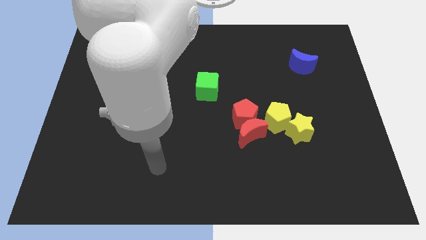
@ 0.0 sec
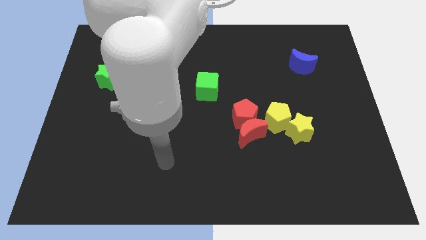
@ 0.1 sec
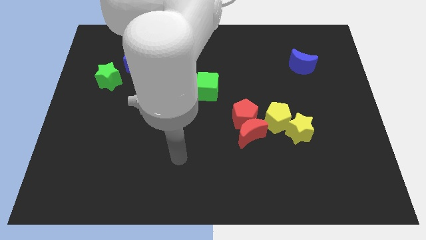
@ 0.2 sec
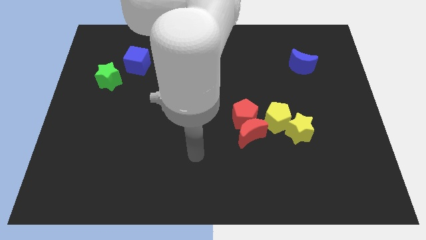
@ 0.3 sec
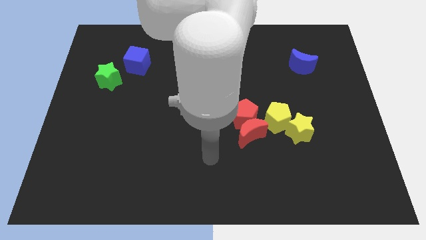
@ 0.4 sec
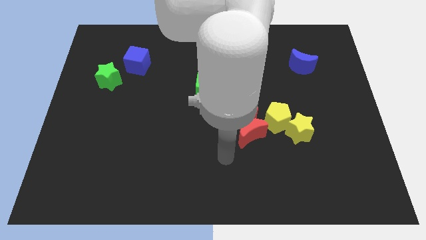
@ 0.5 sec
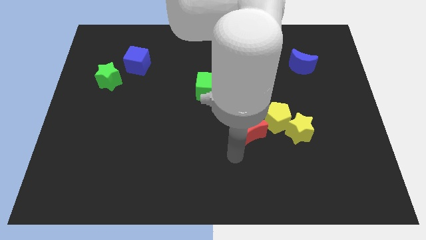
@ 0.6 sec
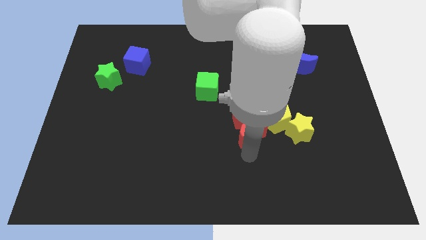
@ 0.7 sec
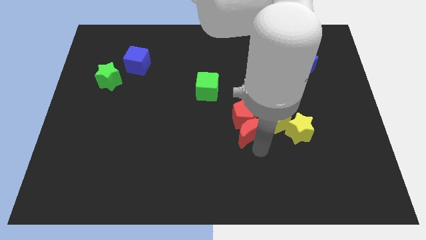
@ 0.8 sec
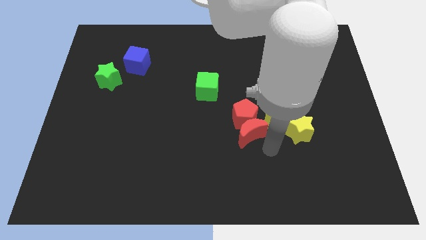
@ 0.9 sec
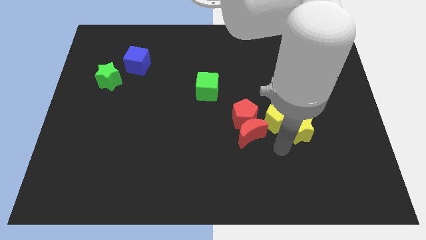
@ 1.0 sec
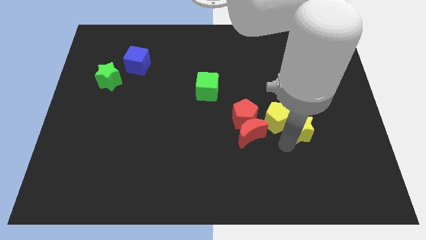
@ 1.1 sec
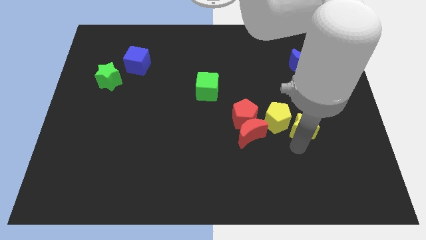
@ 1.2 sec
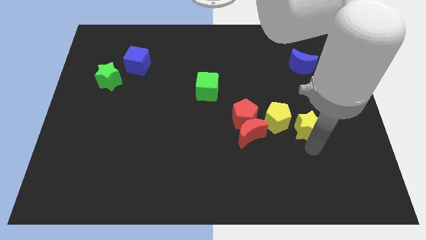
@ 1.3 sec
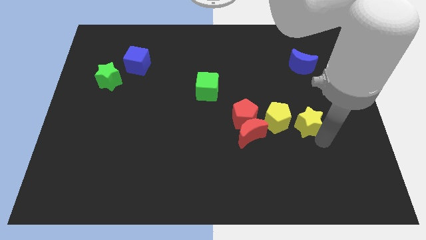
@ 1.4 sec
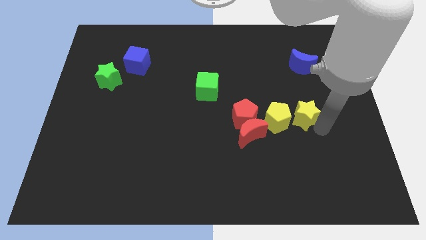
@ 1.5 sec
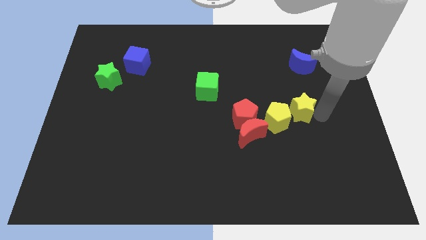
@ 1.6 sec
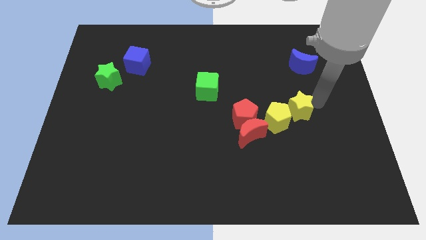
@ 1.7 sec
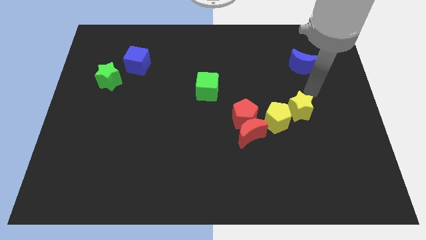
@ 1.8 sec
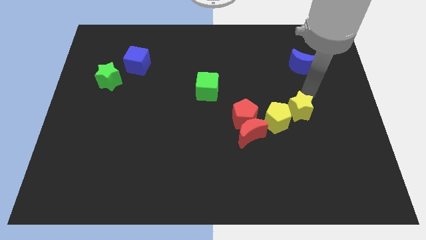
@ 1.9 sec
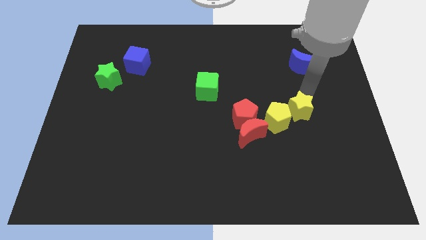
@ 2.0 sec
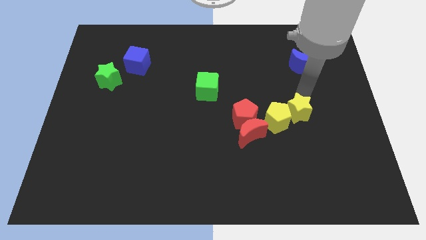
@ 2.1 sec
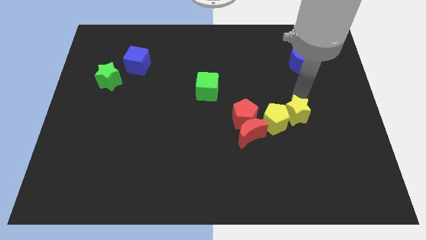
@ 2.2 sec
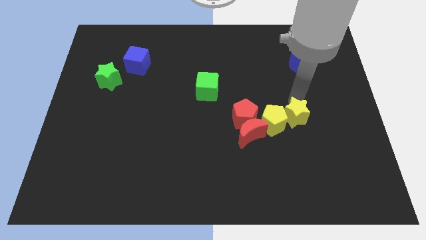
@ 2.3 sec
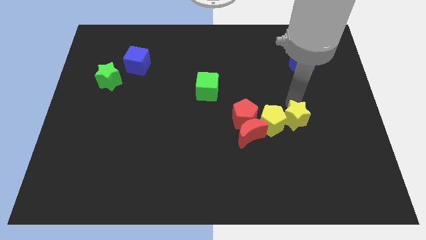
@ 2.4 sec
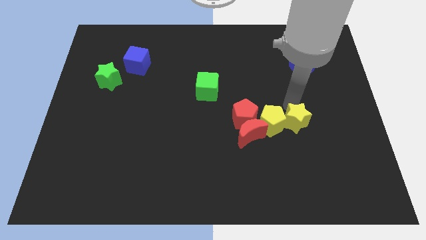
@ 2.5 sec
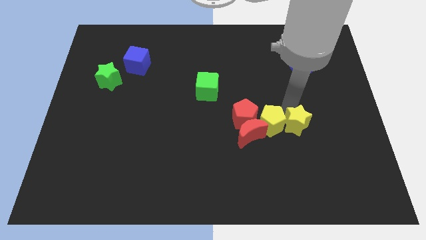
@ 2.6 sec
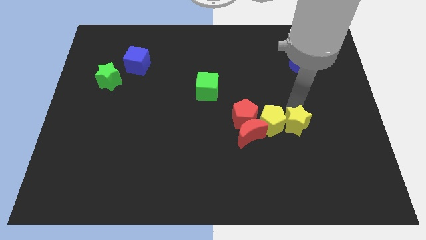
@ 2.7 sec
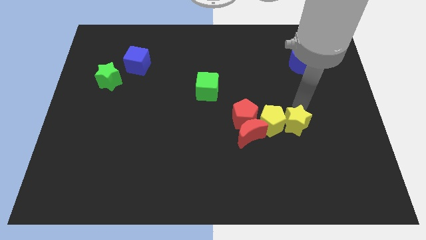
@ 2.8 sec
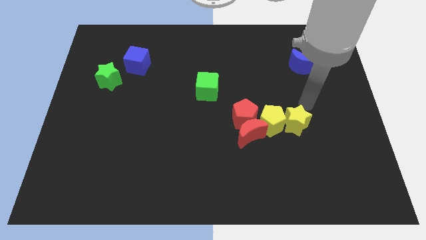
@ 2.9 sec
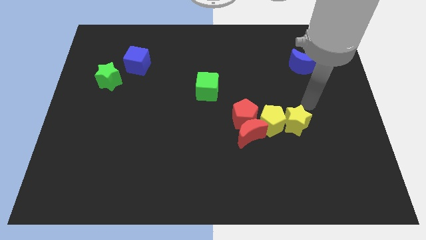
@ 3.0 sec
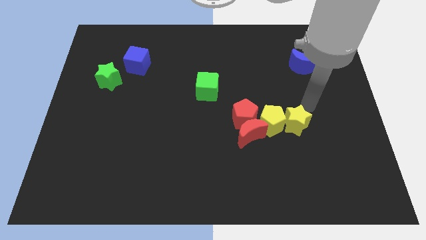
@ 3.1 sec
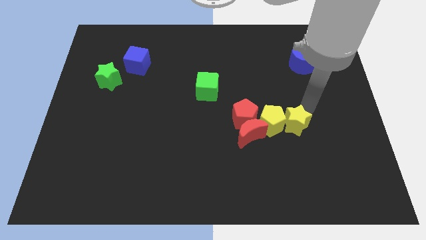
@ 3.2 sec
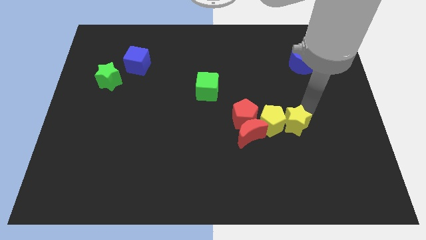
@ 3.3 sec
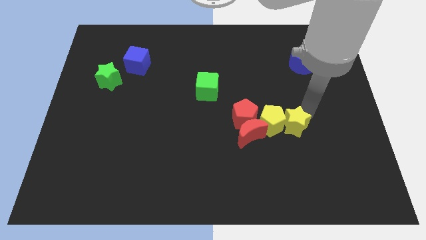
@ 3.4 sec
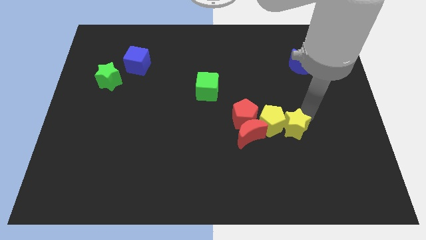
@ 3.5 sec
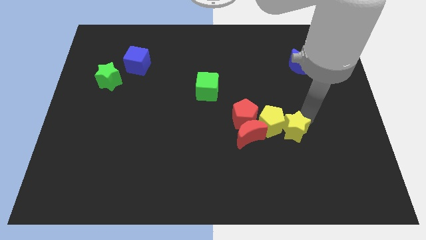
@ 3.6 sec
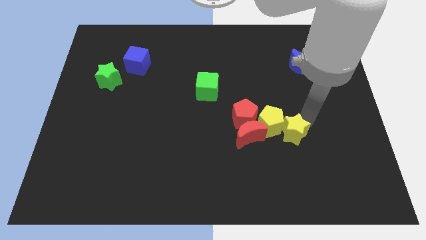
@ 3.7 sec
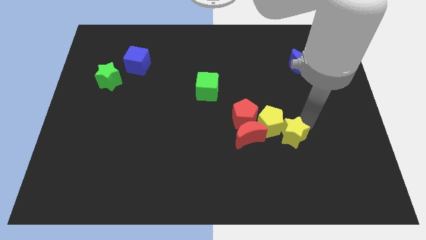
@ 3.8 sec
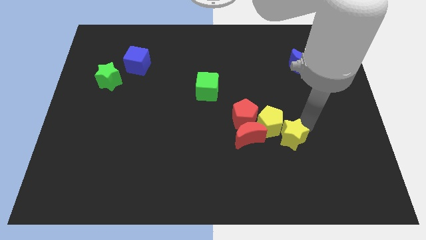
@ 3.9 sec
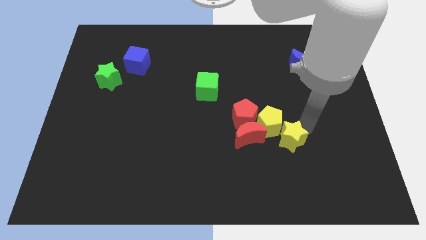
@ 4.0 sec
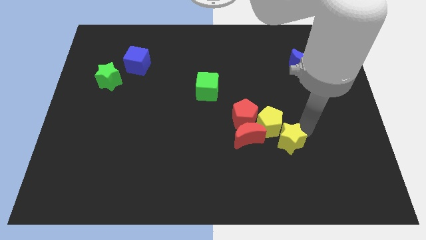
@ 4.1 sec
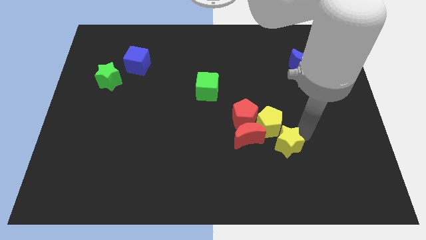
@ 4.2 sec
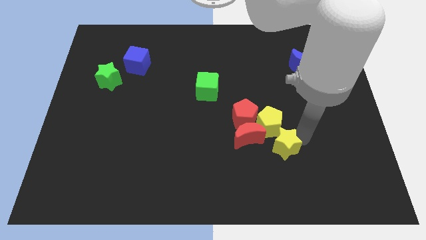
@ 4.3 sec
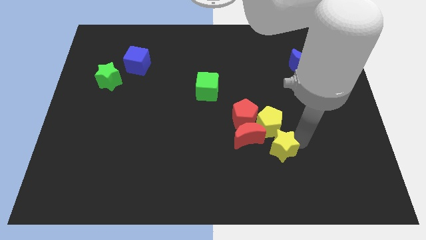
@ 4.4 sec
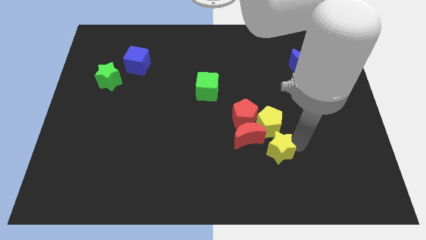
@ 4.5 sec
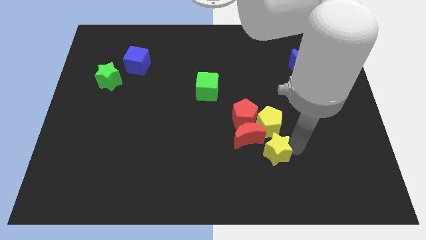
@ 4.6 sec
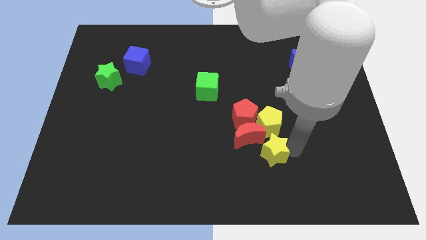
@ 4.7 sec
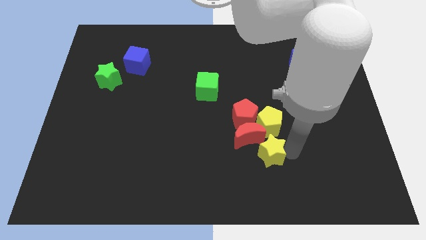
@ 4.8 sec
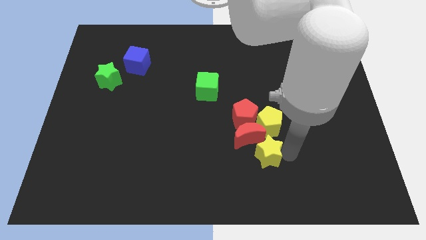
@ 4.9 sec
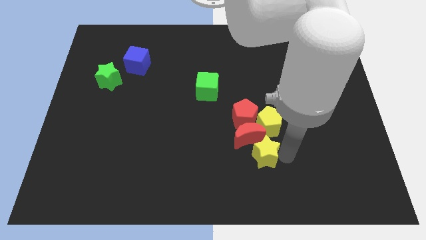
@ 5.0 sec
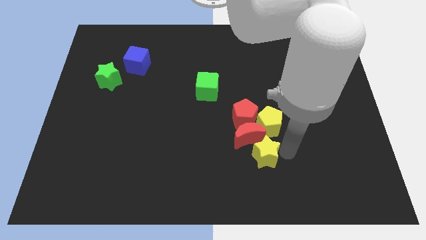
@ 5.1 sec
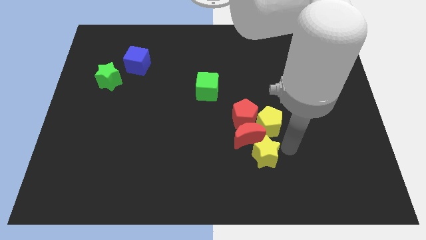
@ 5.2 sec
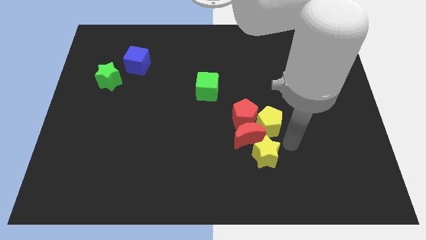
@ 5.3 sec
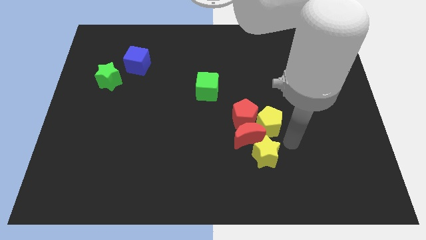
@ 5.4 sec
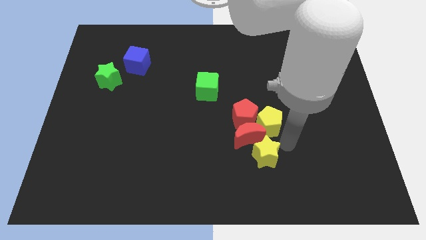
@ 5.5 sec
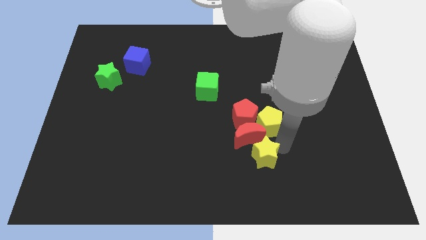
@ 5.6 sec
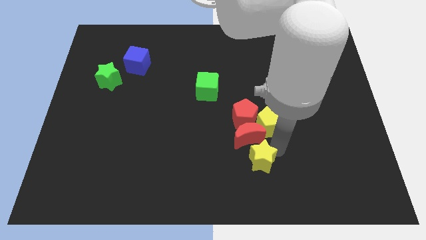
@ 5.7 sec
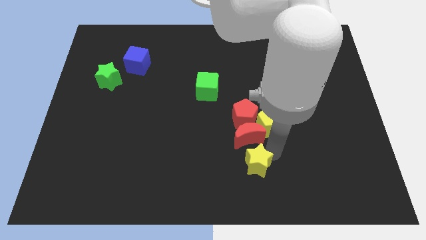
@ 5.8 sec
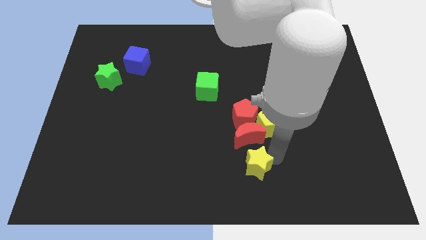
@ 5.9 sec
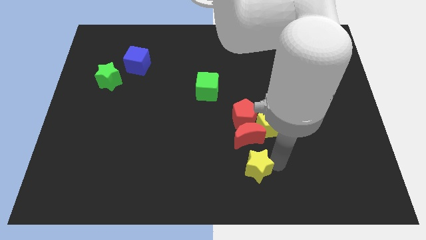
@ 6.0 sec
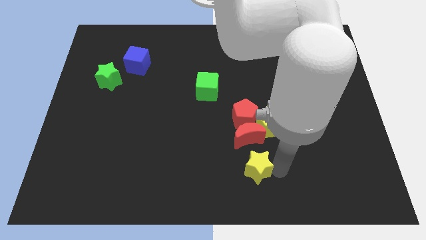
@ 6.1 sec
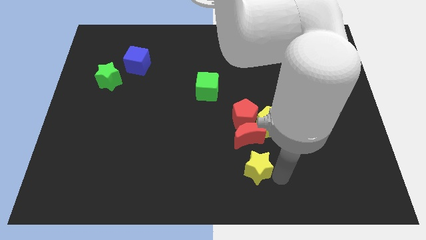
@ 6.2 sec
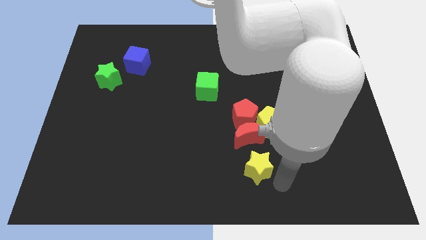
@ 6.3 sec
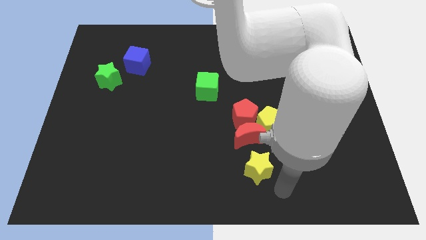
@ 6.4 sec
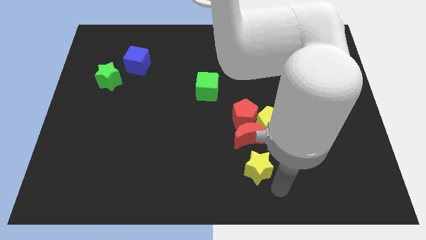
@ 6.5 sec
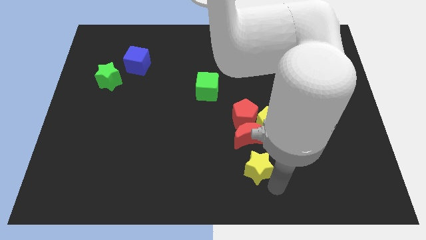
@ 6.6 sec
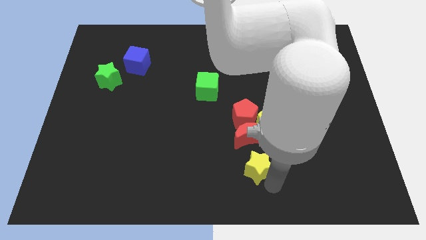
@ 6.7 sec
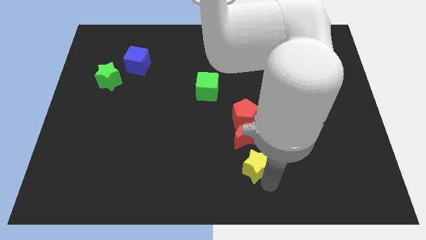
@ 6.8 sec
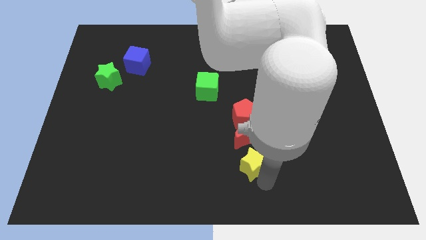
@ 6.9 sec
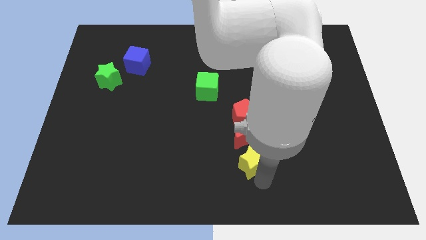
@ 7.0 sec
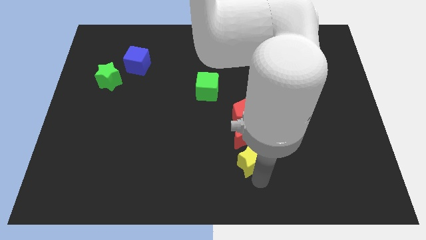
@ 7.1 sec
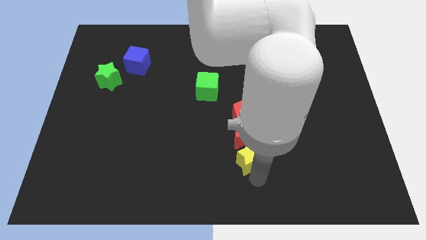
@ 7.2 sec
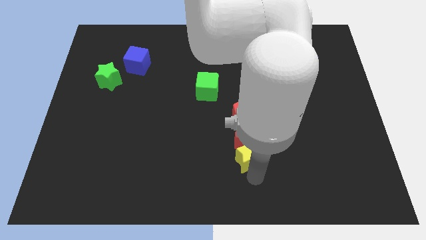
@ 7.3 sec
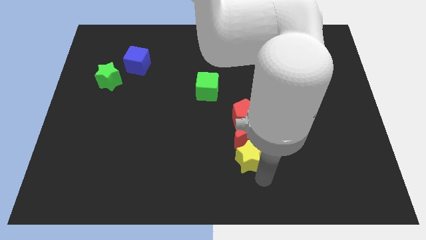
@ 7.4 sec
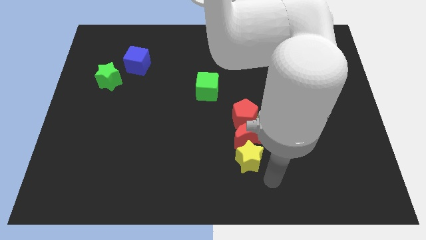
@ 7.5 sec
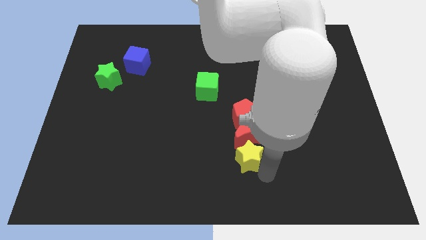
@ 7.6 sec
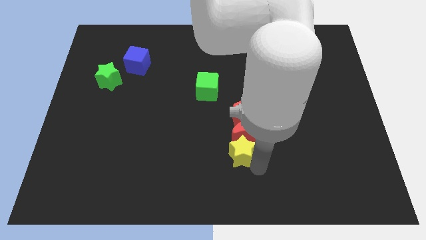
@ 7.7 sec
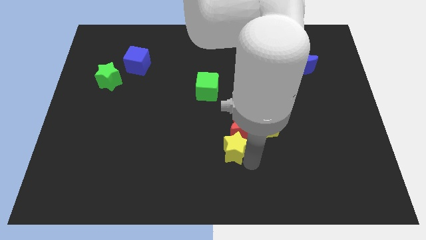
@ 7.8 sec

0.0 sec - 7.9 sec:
put the yellow star to the bottom left side of the red pentagon
